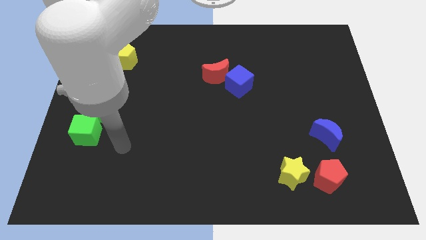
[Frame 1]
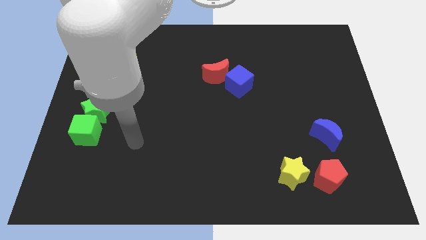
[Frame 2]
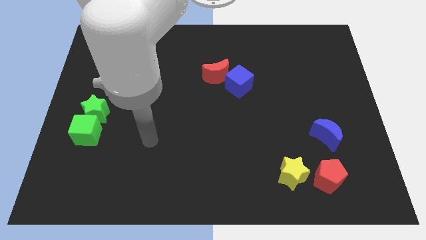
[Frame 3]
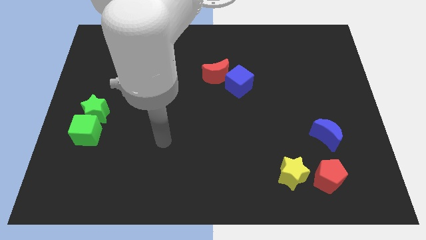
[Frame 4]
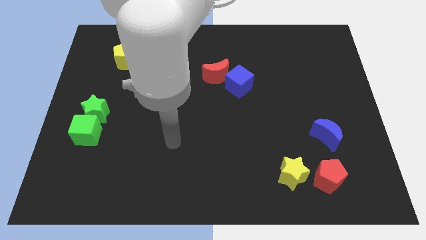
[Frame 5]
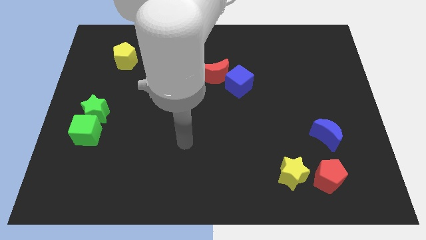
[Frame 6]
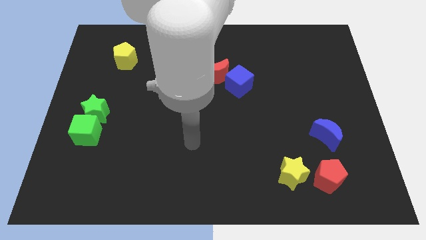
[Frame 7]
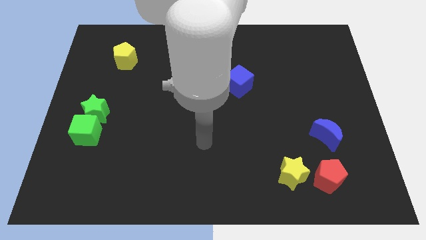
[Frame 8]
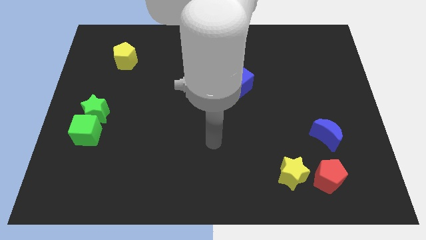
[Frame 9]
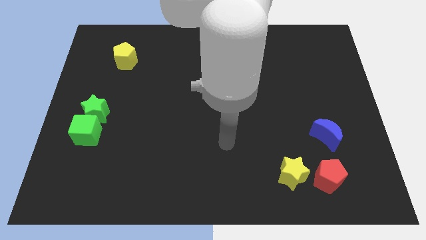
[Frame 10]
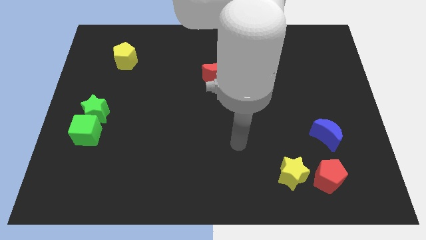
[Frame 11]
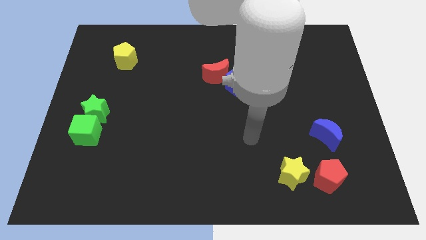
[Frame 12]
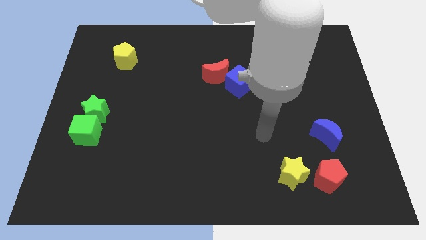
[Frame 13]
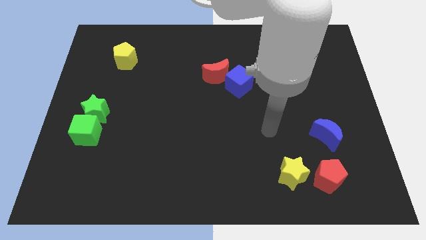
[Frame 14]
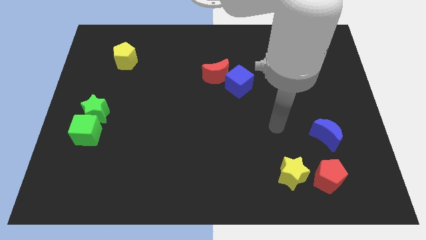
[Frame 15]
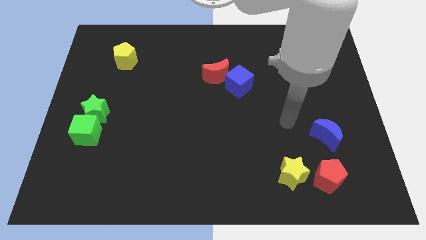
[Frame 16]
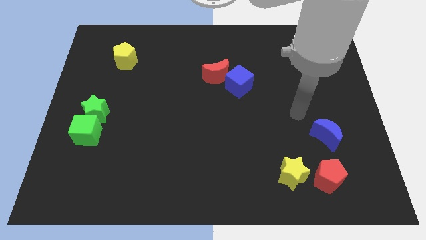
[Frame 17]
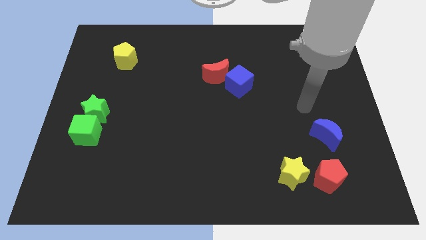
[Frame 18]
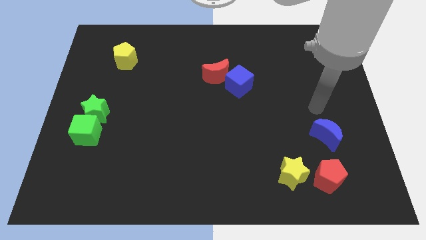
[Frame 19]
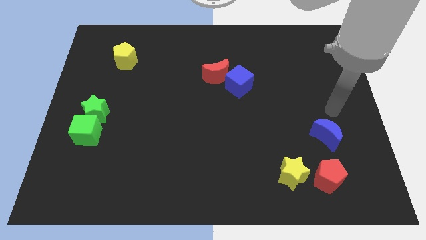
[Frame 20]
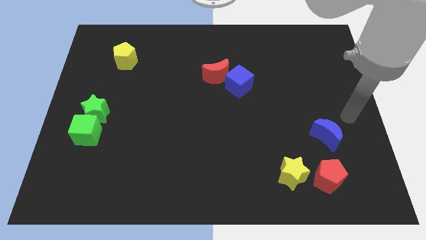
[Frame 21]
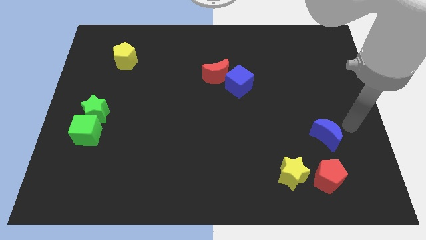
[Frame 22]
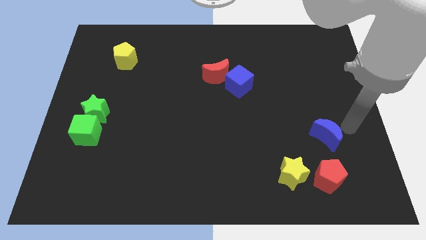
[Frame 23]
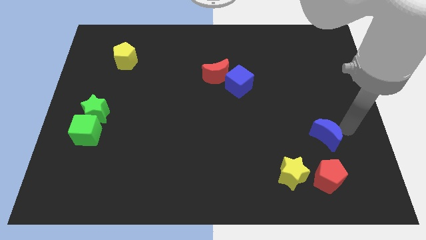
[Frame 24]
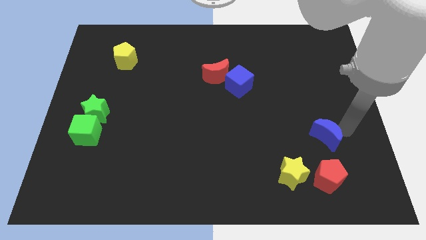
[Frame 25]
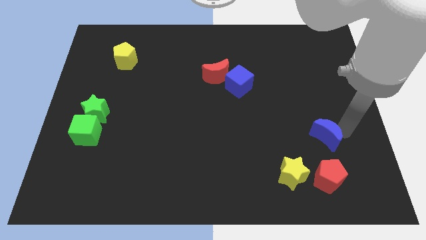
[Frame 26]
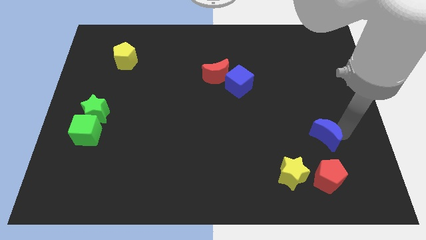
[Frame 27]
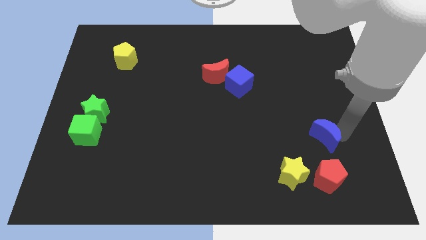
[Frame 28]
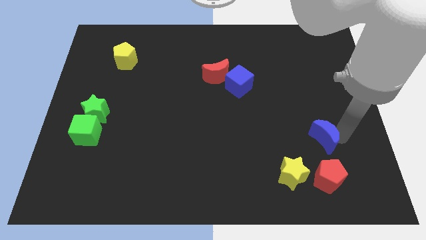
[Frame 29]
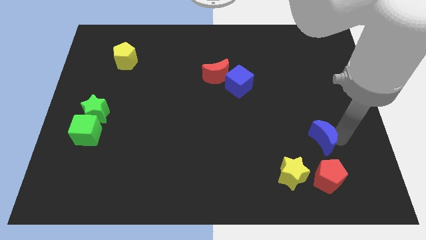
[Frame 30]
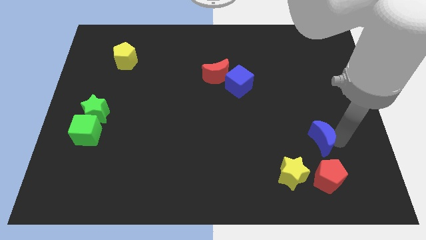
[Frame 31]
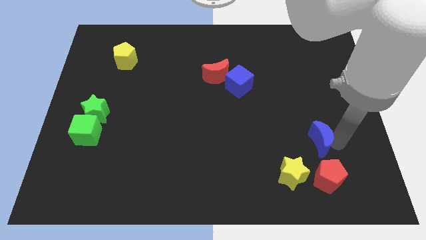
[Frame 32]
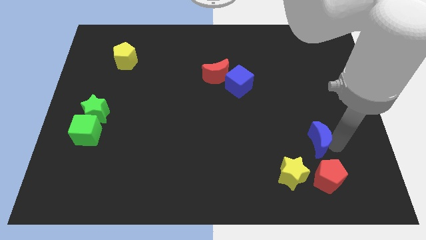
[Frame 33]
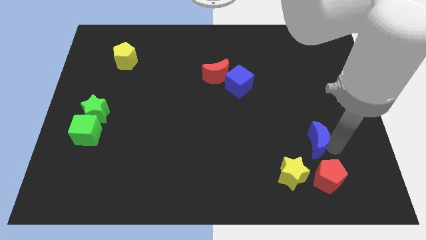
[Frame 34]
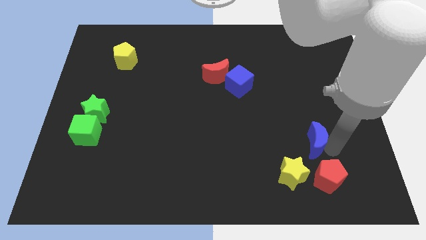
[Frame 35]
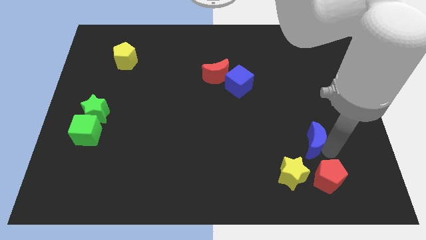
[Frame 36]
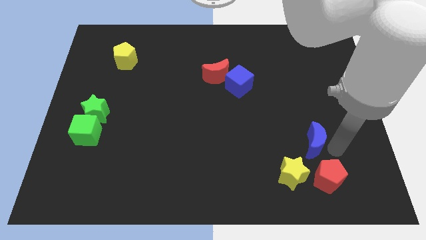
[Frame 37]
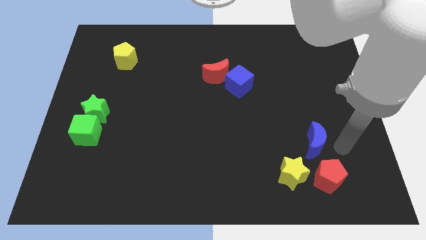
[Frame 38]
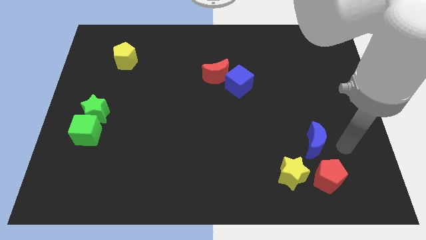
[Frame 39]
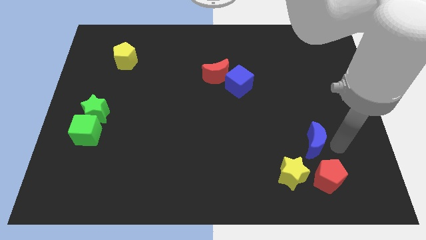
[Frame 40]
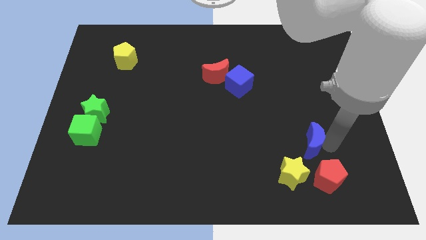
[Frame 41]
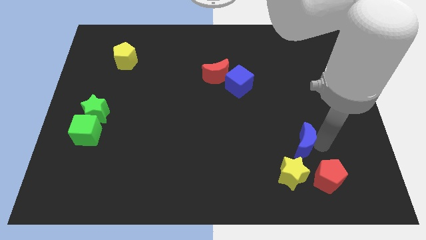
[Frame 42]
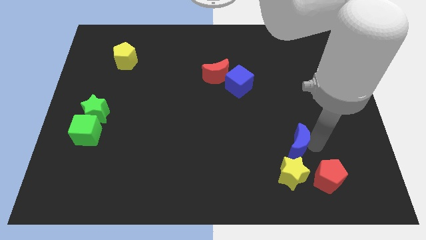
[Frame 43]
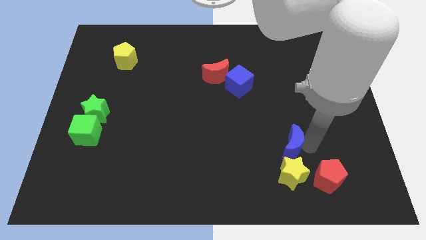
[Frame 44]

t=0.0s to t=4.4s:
slightly push the blue moon to the left

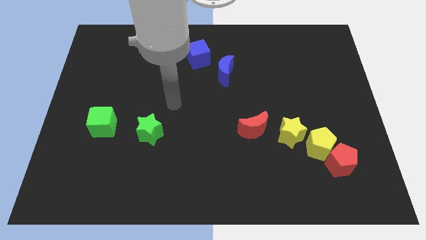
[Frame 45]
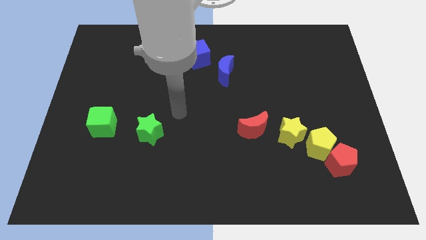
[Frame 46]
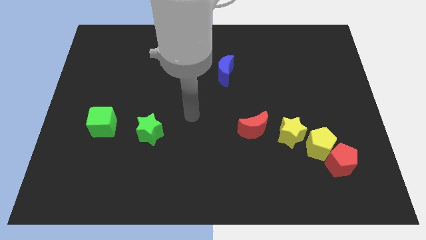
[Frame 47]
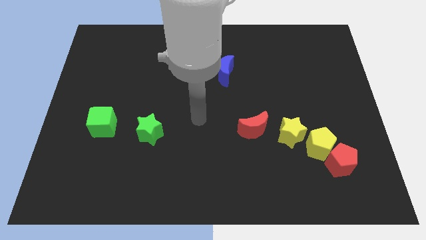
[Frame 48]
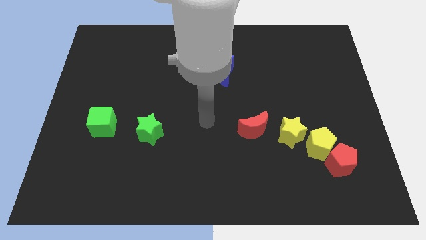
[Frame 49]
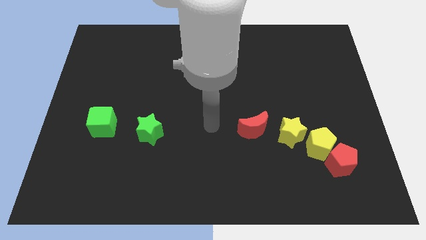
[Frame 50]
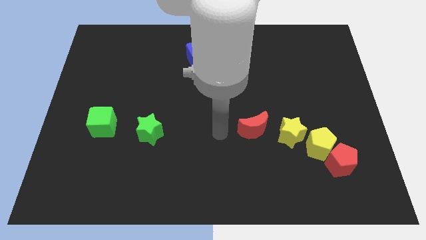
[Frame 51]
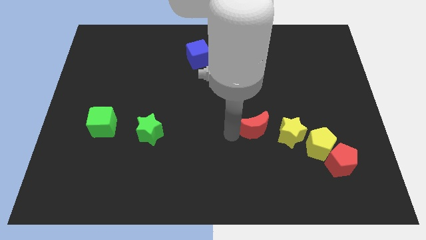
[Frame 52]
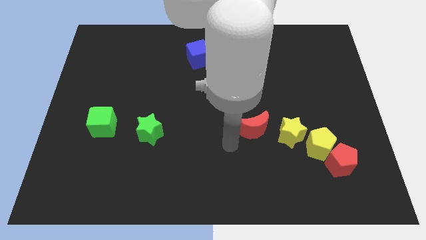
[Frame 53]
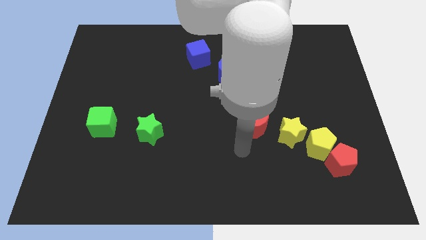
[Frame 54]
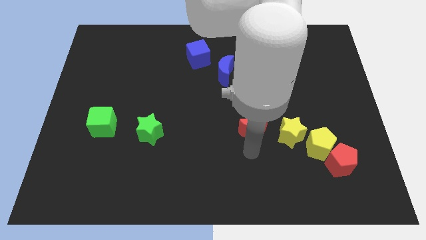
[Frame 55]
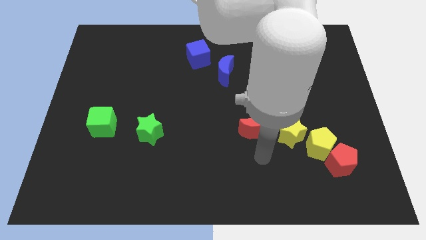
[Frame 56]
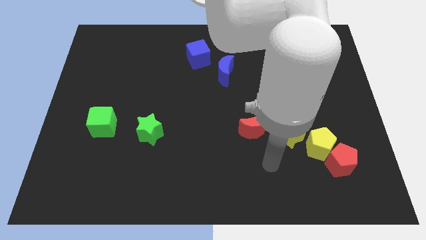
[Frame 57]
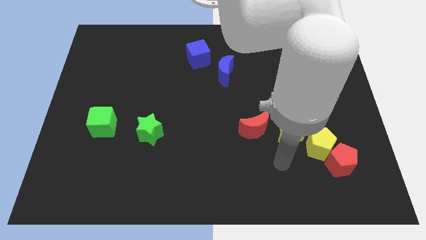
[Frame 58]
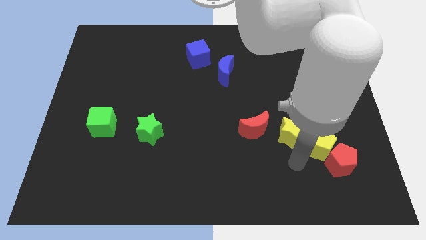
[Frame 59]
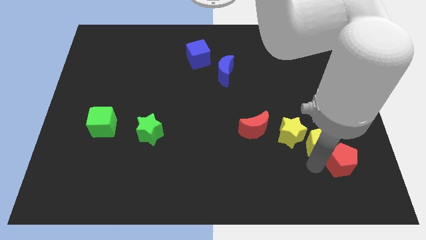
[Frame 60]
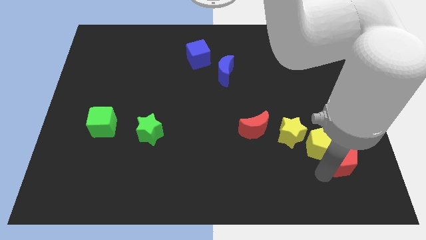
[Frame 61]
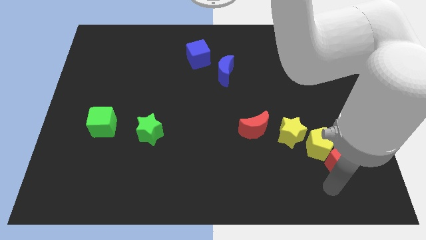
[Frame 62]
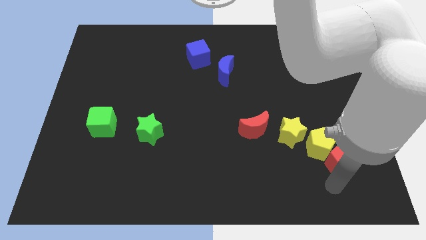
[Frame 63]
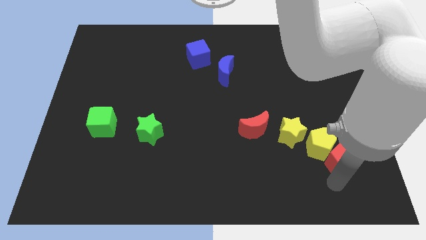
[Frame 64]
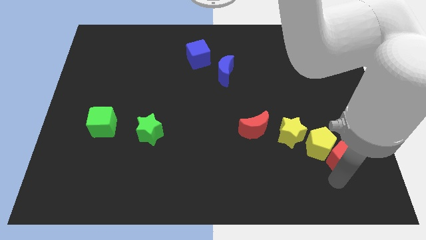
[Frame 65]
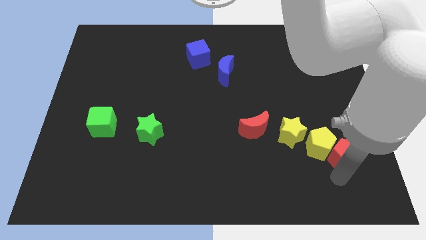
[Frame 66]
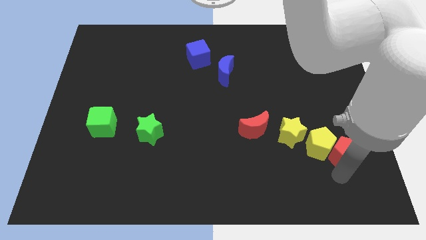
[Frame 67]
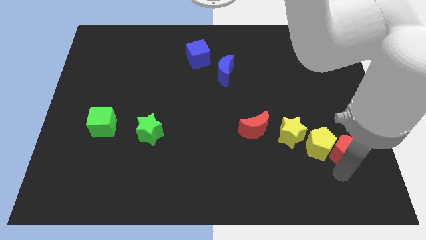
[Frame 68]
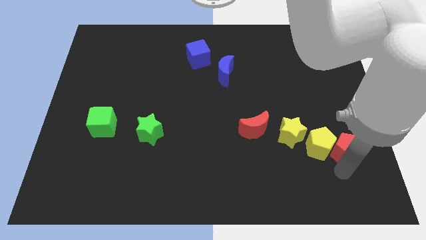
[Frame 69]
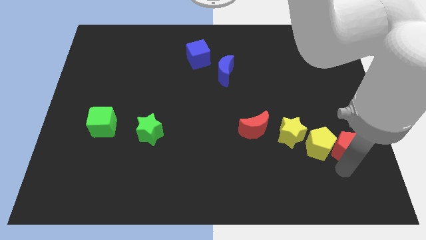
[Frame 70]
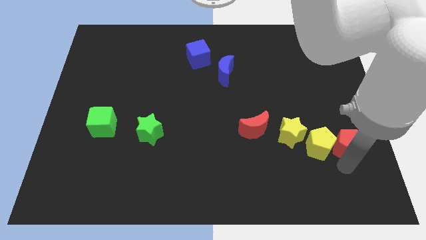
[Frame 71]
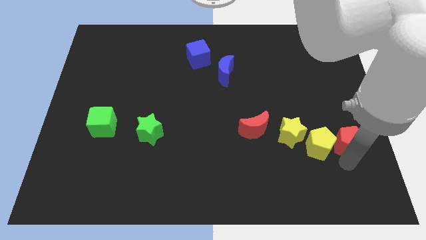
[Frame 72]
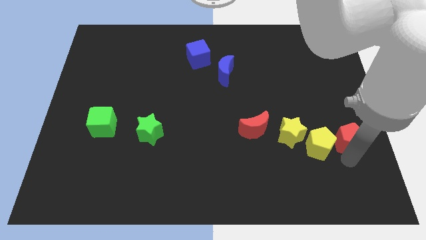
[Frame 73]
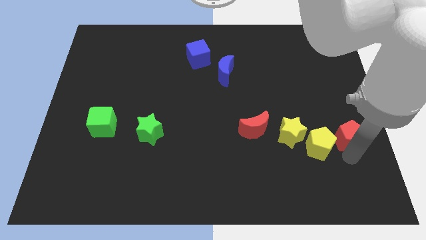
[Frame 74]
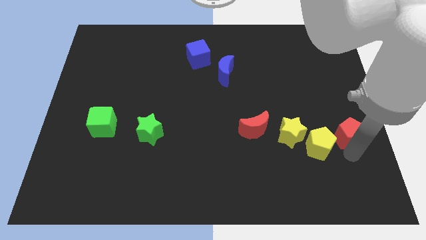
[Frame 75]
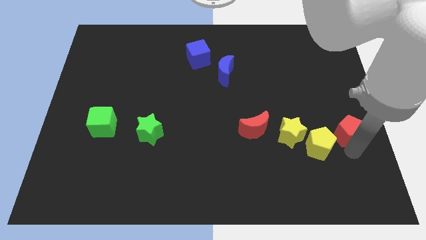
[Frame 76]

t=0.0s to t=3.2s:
slide the red pentagon upwards a little bit

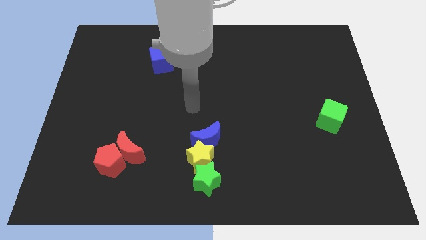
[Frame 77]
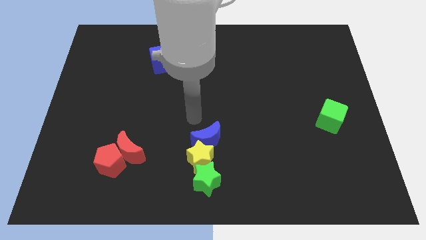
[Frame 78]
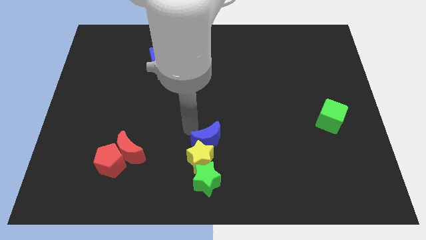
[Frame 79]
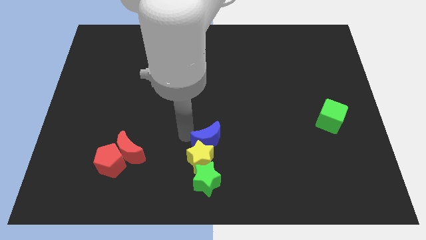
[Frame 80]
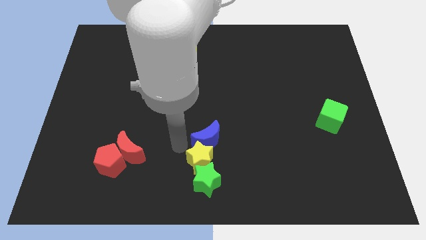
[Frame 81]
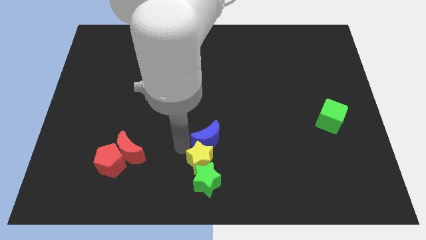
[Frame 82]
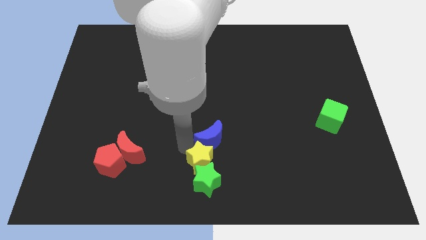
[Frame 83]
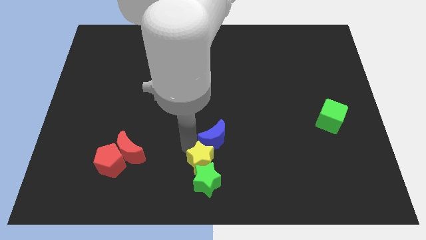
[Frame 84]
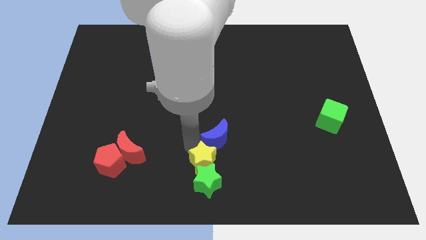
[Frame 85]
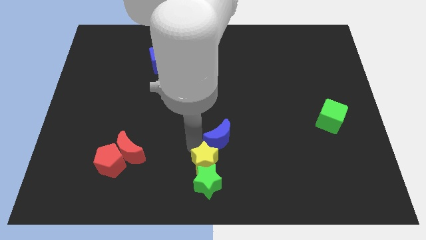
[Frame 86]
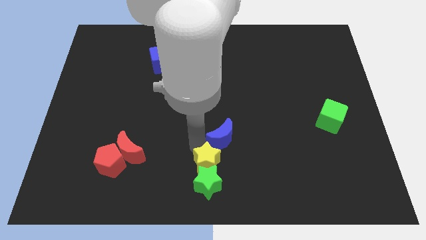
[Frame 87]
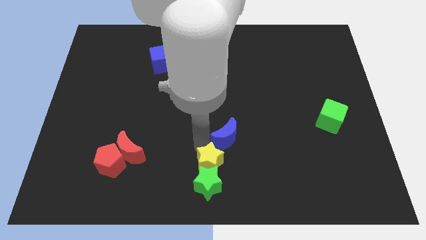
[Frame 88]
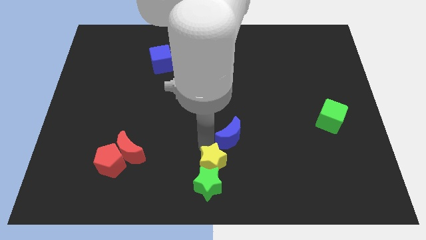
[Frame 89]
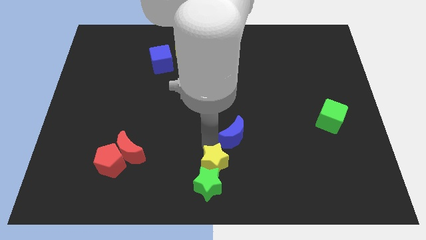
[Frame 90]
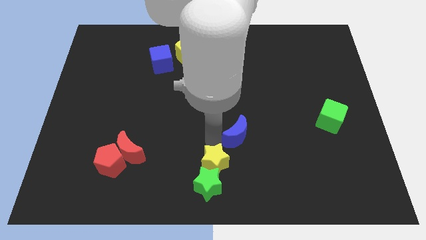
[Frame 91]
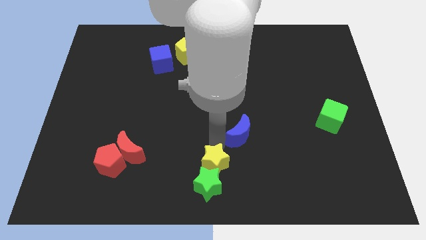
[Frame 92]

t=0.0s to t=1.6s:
slightly push the blue moon to the right
